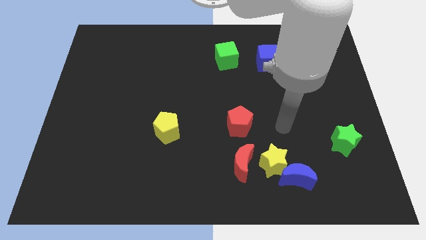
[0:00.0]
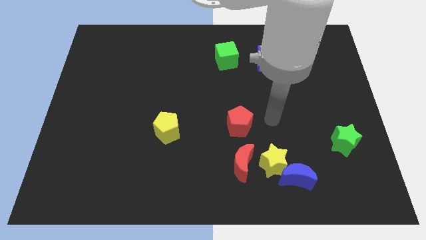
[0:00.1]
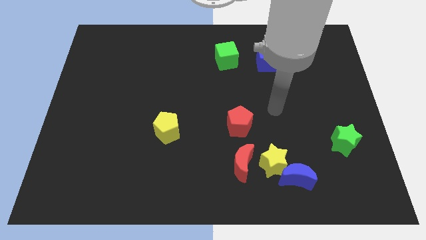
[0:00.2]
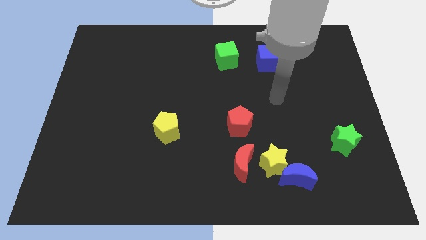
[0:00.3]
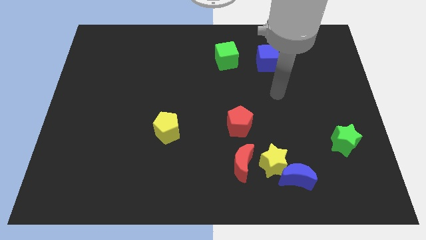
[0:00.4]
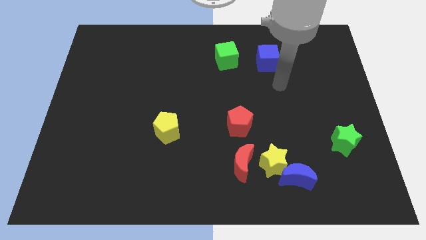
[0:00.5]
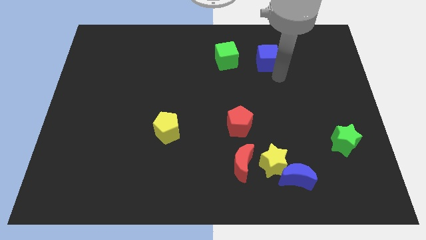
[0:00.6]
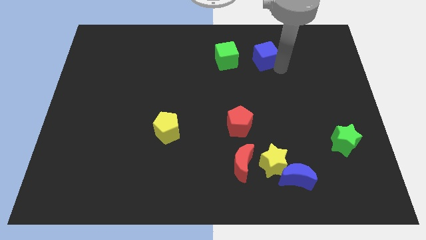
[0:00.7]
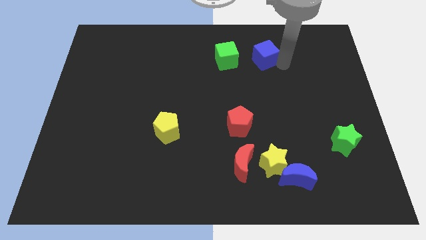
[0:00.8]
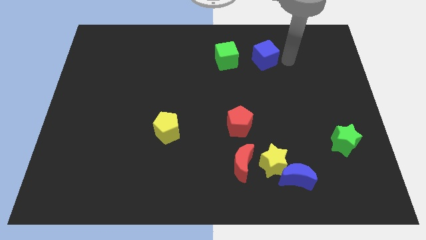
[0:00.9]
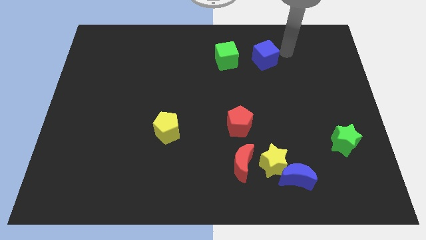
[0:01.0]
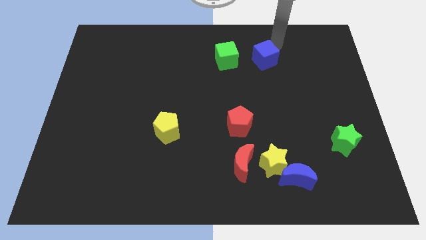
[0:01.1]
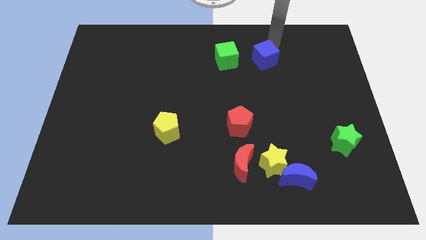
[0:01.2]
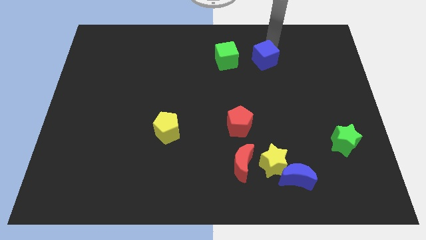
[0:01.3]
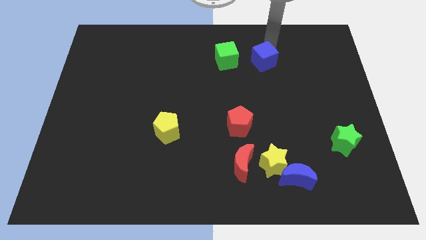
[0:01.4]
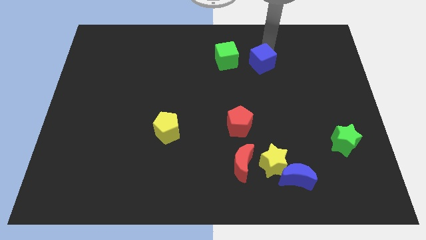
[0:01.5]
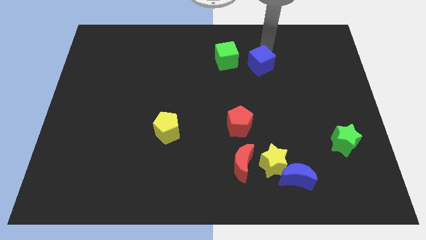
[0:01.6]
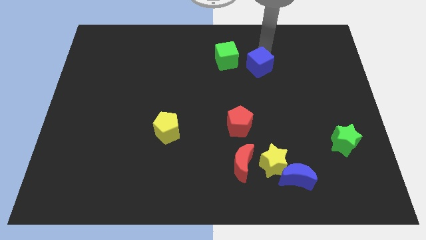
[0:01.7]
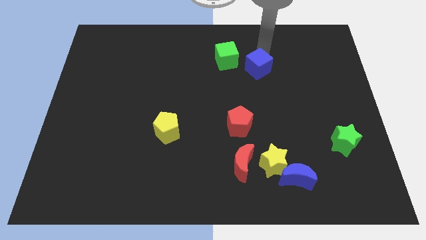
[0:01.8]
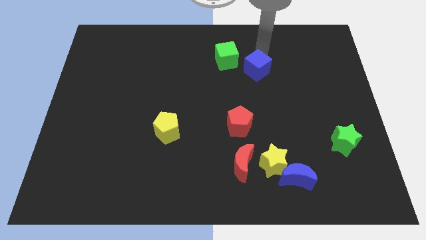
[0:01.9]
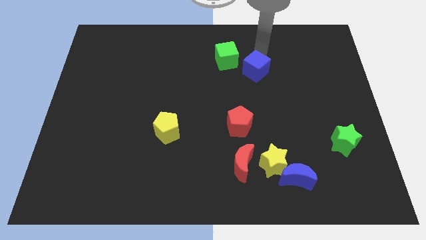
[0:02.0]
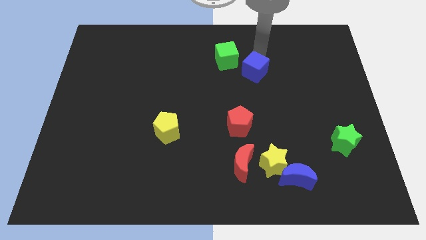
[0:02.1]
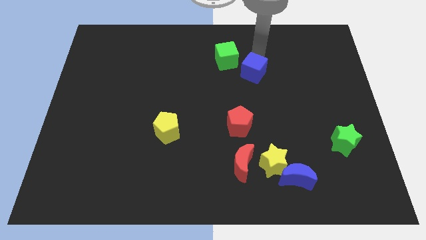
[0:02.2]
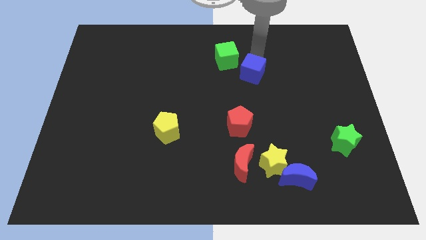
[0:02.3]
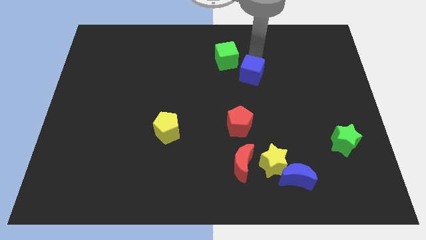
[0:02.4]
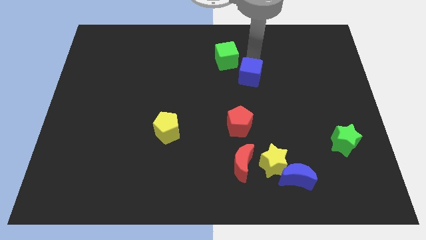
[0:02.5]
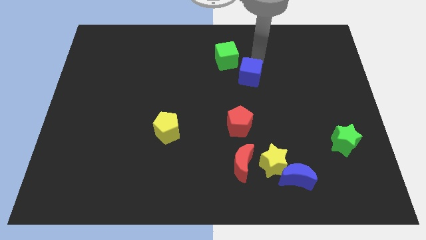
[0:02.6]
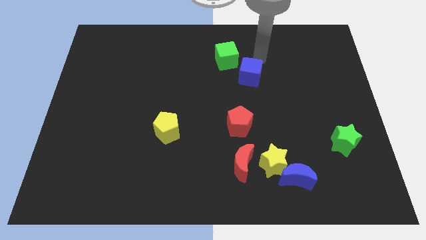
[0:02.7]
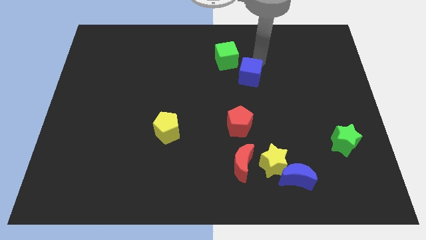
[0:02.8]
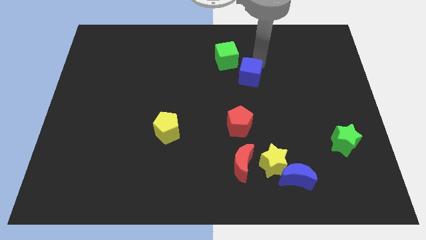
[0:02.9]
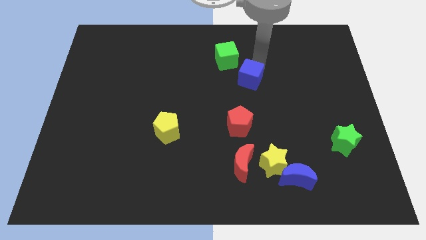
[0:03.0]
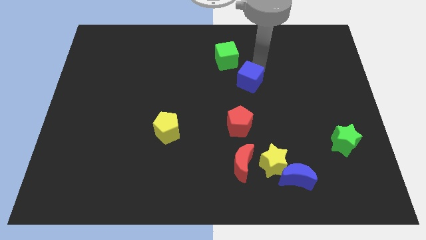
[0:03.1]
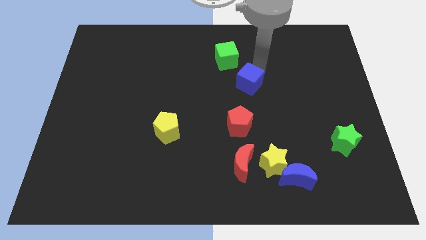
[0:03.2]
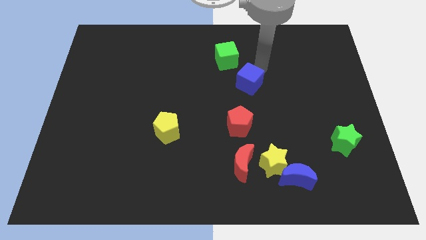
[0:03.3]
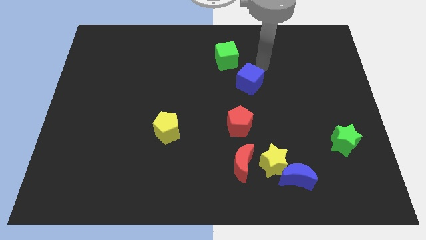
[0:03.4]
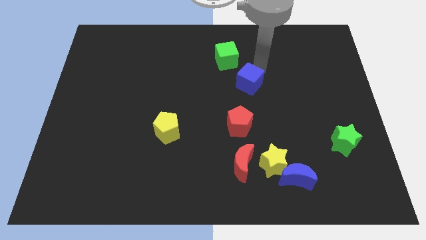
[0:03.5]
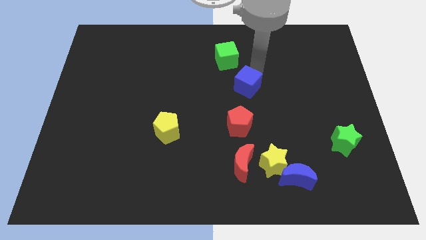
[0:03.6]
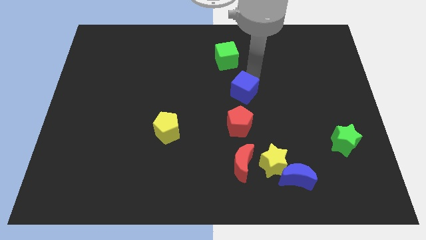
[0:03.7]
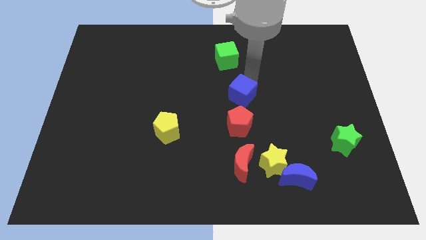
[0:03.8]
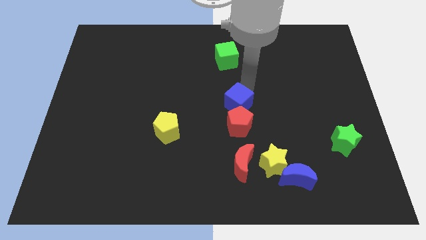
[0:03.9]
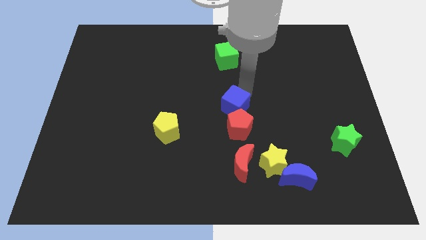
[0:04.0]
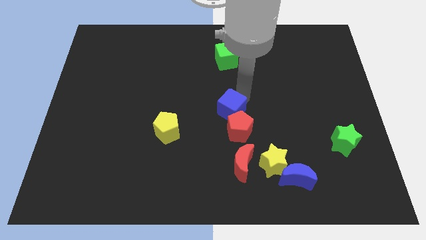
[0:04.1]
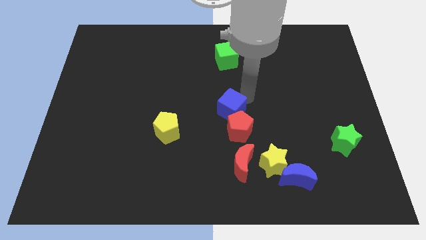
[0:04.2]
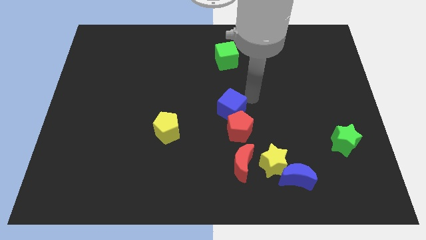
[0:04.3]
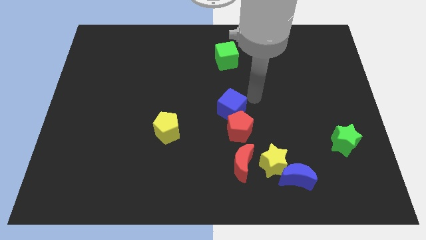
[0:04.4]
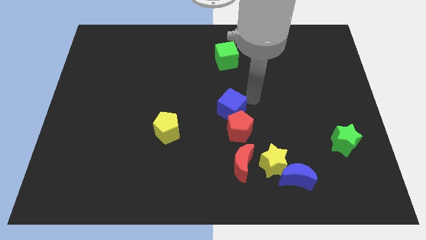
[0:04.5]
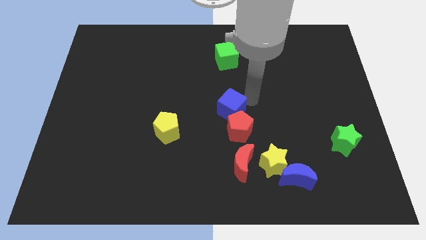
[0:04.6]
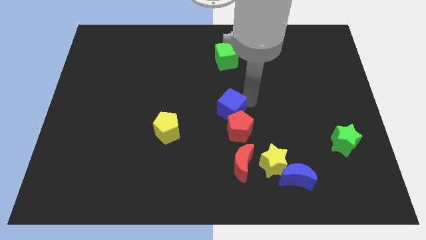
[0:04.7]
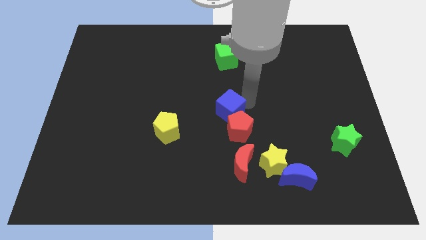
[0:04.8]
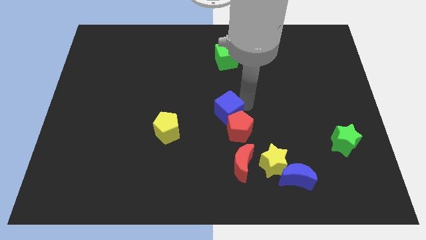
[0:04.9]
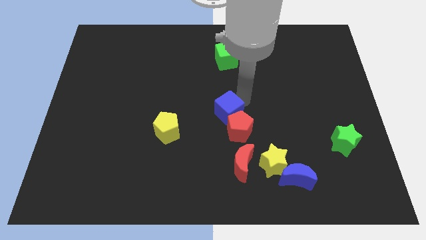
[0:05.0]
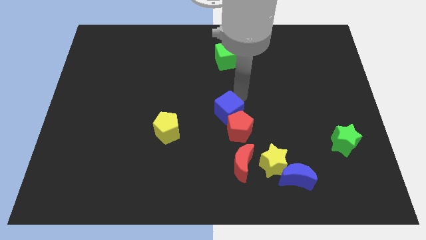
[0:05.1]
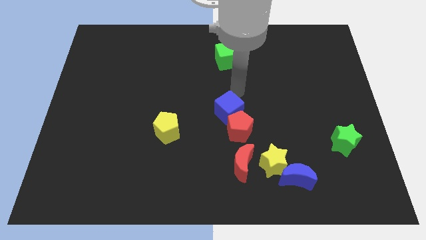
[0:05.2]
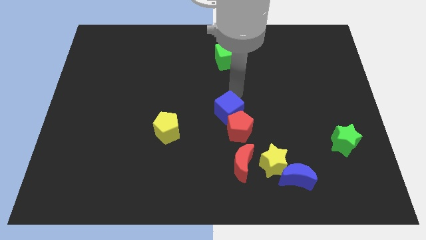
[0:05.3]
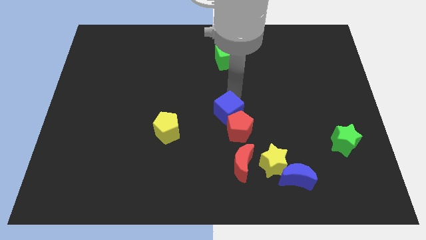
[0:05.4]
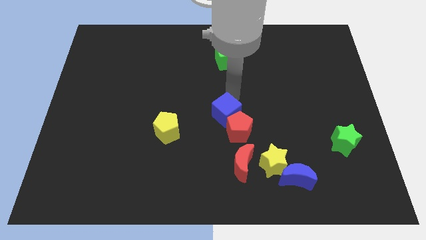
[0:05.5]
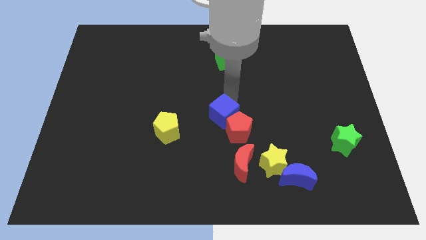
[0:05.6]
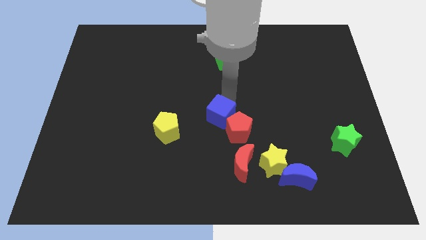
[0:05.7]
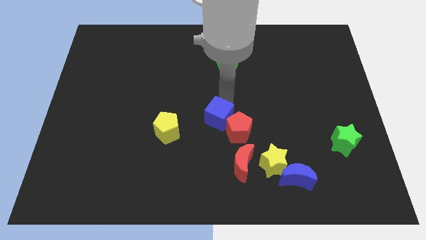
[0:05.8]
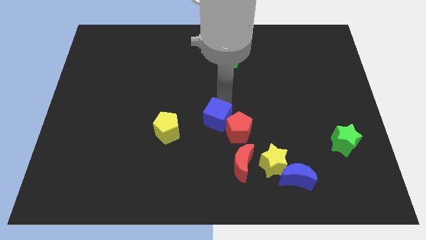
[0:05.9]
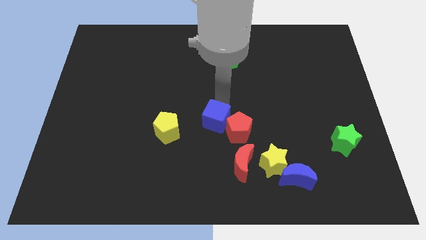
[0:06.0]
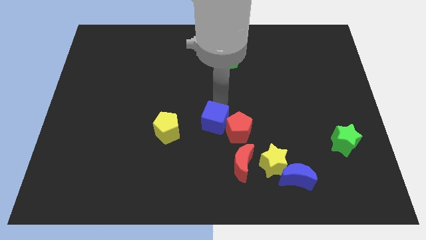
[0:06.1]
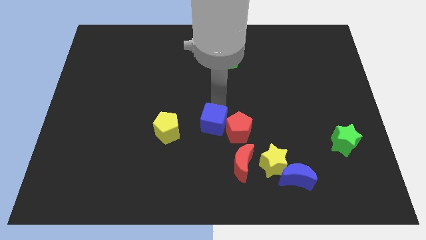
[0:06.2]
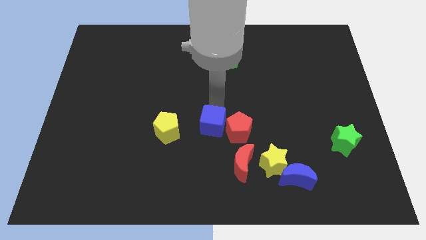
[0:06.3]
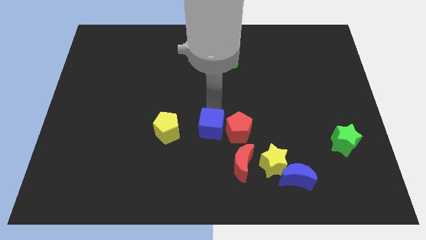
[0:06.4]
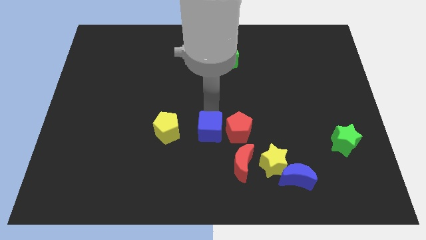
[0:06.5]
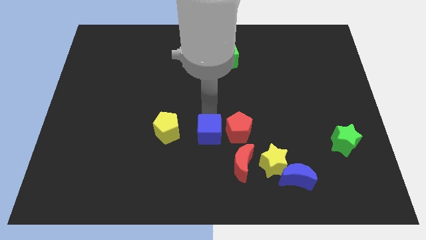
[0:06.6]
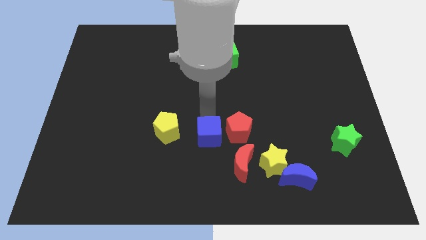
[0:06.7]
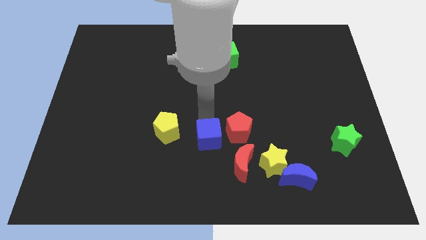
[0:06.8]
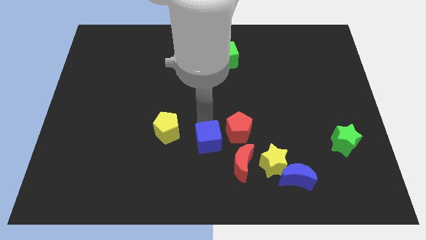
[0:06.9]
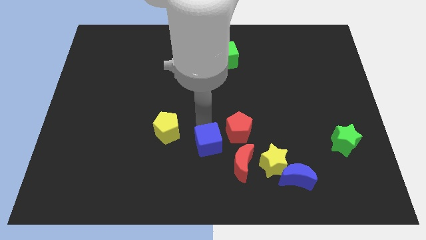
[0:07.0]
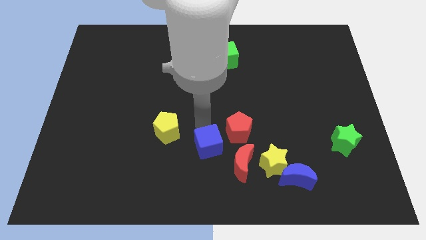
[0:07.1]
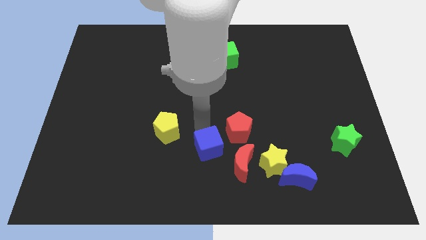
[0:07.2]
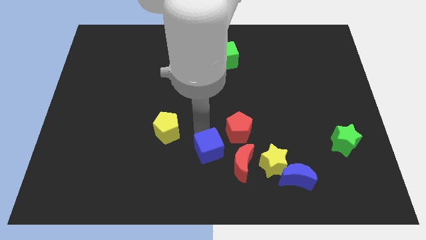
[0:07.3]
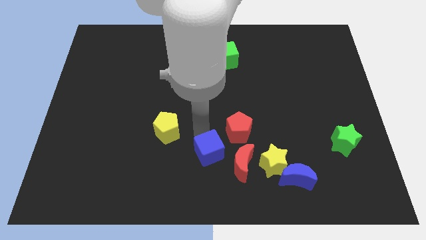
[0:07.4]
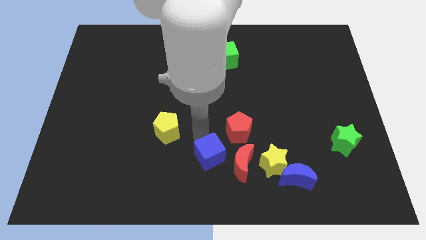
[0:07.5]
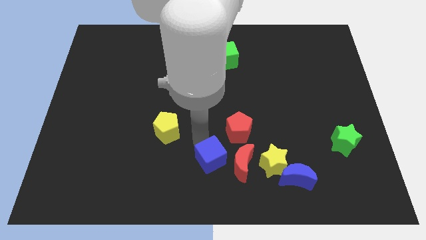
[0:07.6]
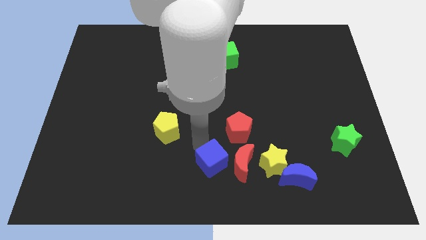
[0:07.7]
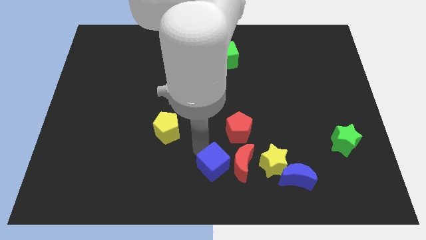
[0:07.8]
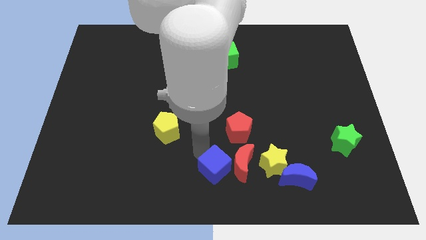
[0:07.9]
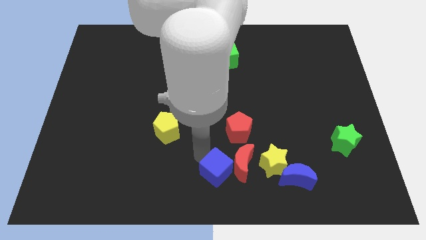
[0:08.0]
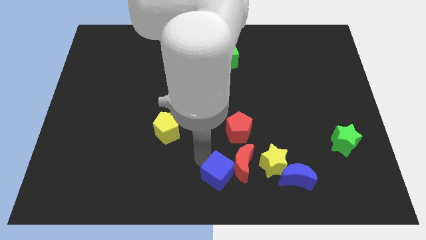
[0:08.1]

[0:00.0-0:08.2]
push the blue cube just left of the blue moon
